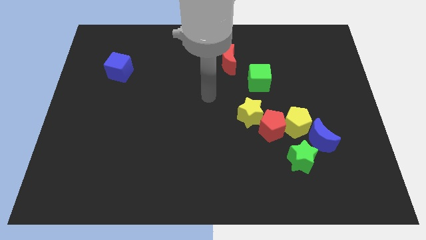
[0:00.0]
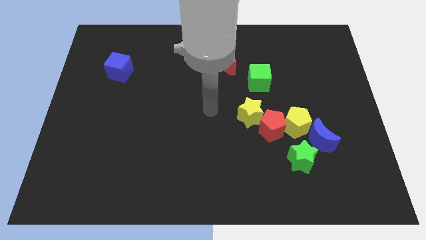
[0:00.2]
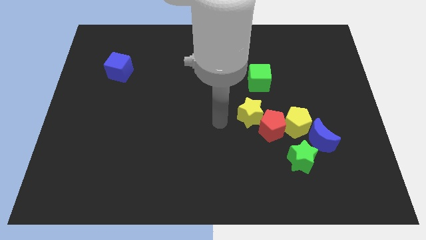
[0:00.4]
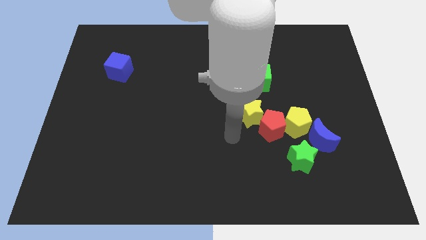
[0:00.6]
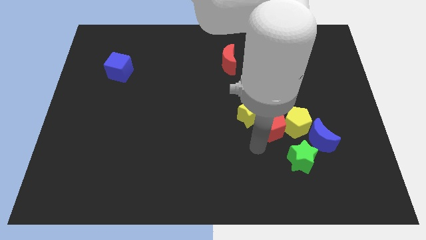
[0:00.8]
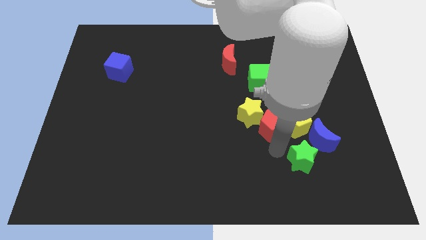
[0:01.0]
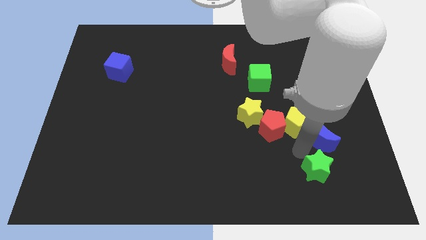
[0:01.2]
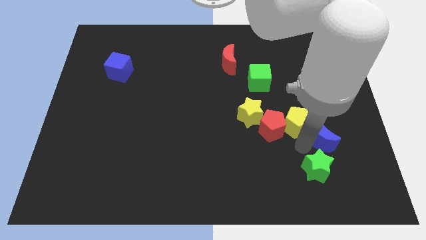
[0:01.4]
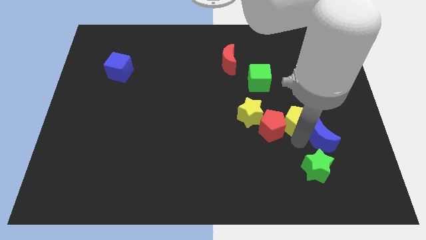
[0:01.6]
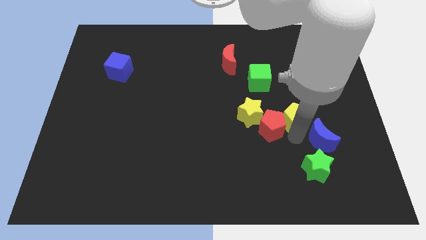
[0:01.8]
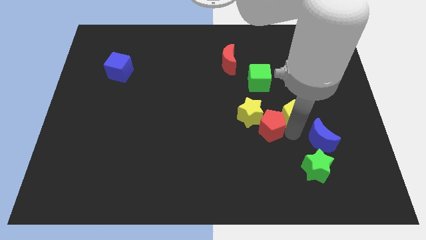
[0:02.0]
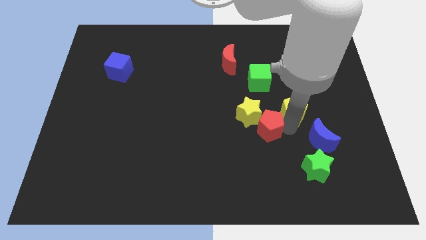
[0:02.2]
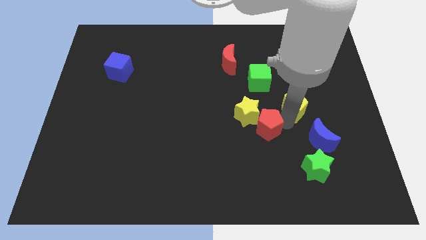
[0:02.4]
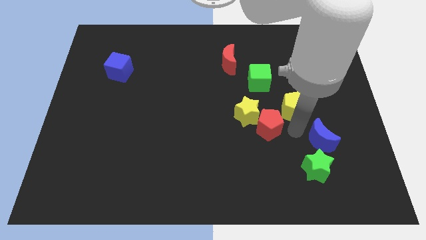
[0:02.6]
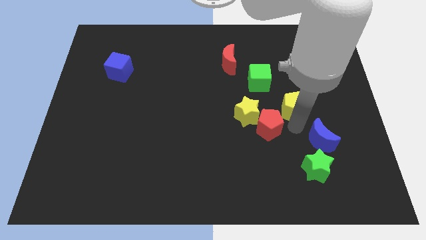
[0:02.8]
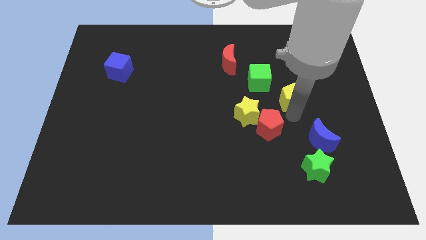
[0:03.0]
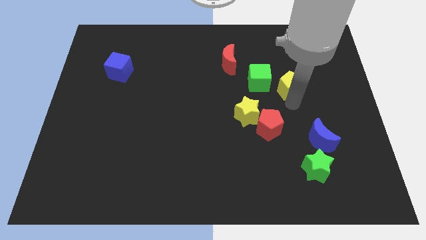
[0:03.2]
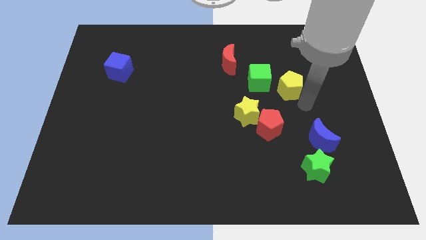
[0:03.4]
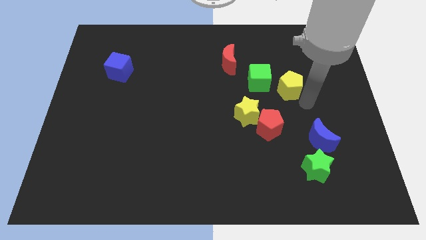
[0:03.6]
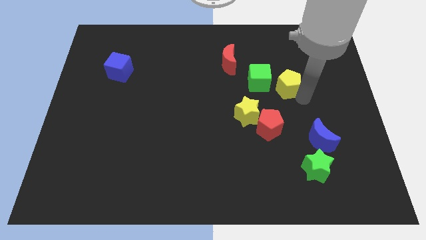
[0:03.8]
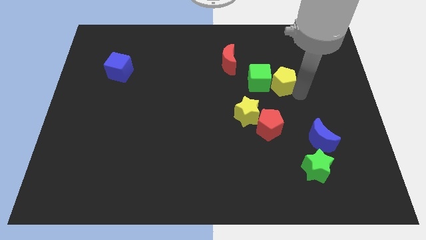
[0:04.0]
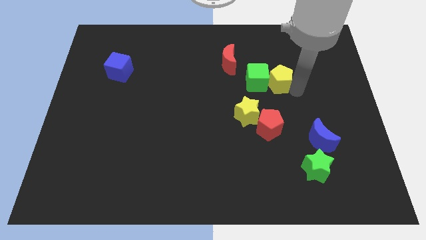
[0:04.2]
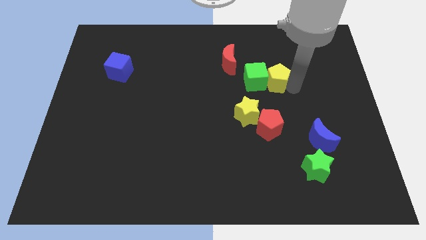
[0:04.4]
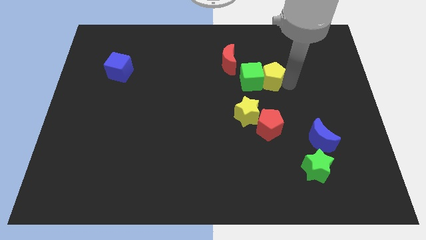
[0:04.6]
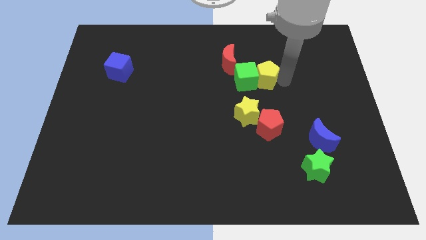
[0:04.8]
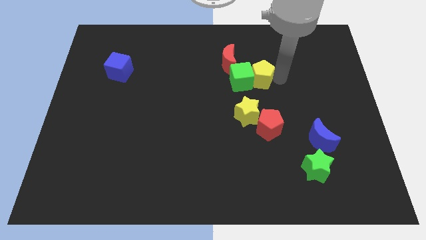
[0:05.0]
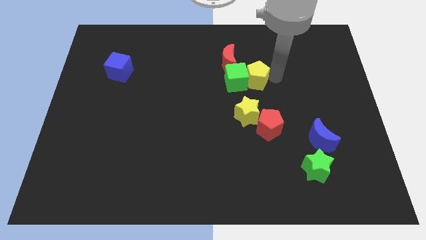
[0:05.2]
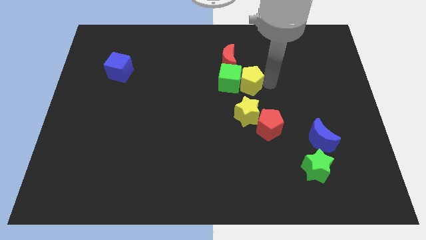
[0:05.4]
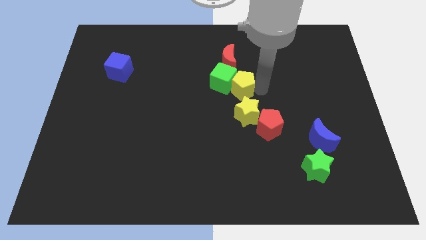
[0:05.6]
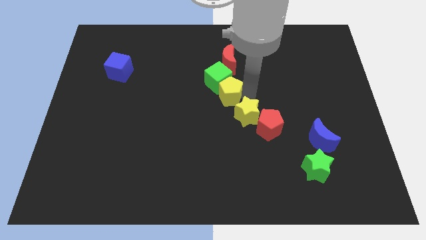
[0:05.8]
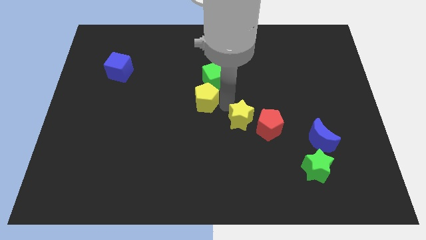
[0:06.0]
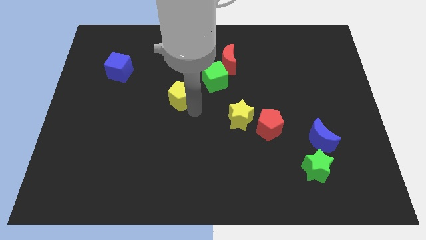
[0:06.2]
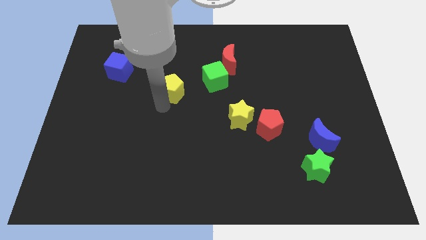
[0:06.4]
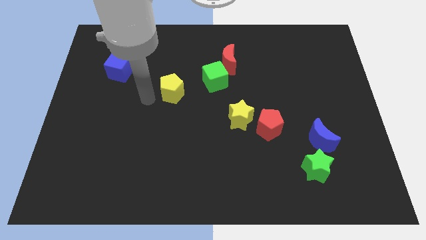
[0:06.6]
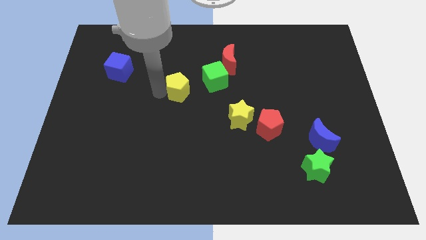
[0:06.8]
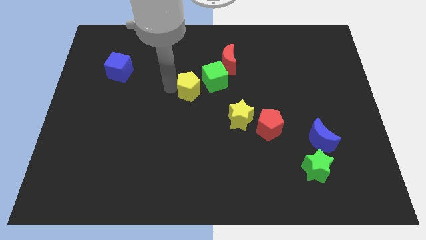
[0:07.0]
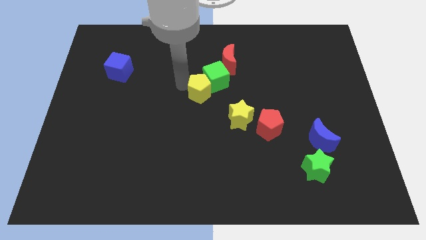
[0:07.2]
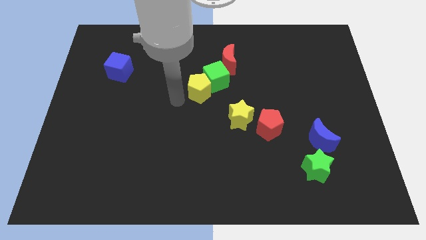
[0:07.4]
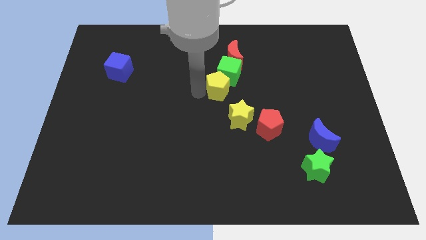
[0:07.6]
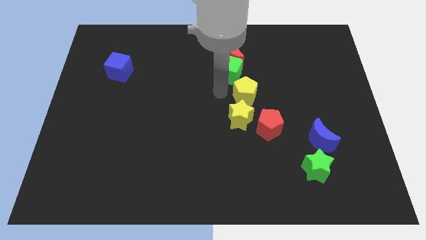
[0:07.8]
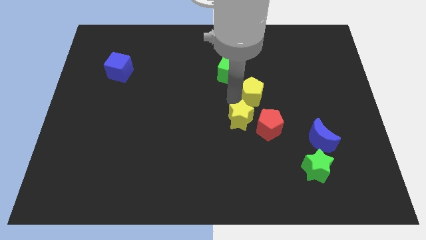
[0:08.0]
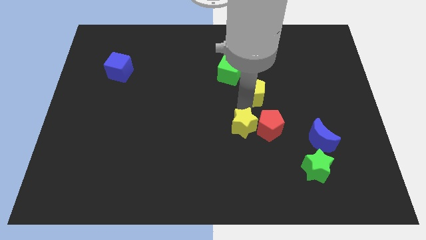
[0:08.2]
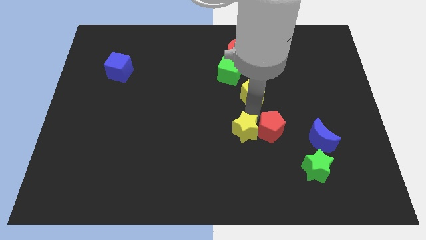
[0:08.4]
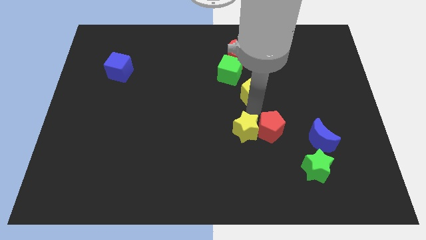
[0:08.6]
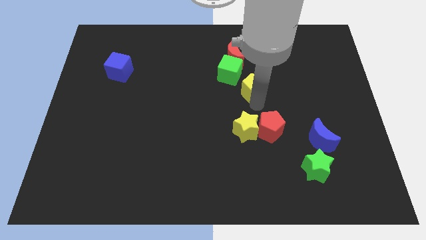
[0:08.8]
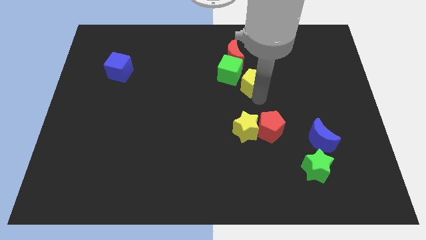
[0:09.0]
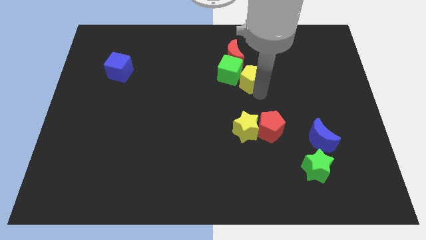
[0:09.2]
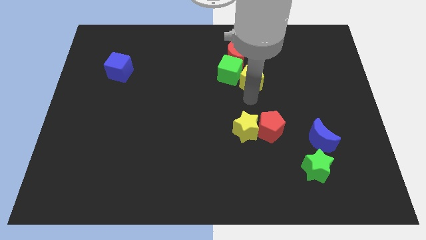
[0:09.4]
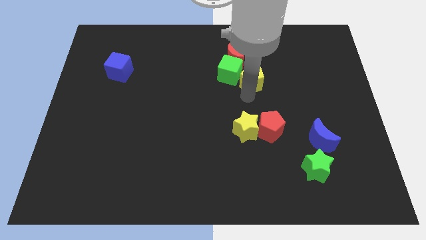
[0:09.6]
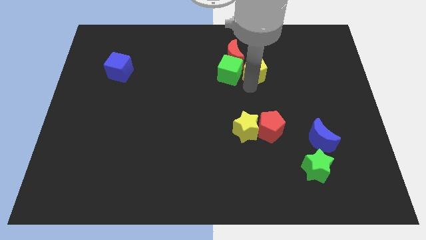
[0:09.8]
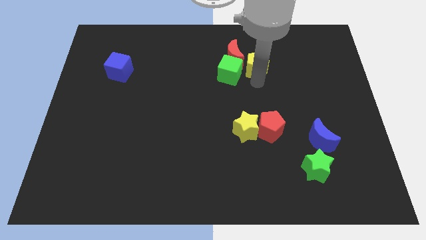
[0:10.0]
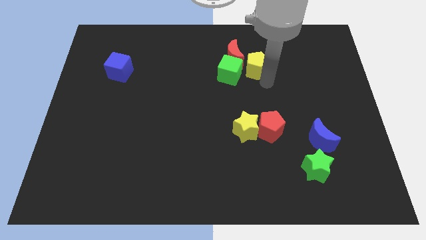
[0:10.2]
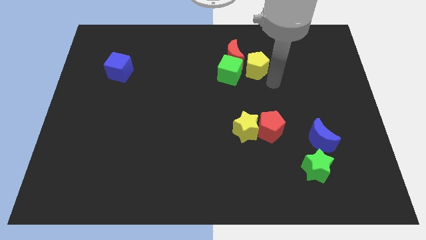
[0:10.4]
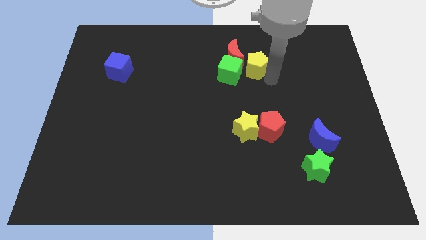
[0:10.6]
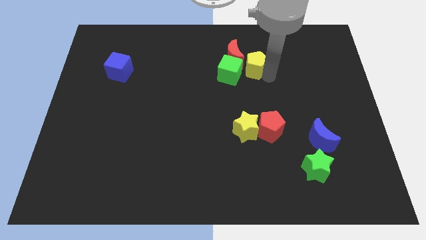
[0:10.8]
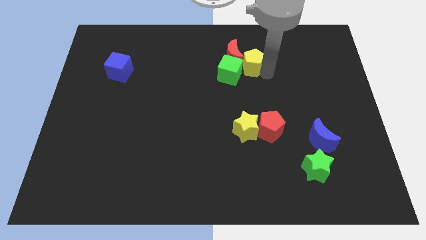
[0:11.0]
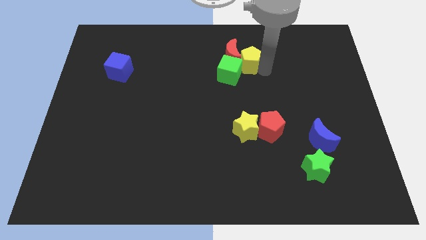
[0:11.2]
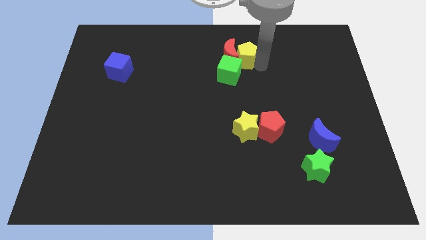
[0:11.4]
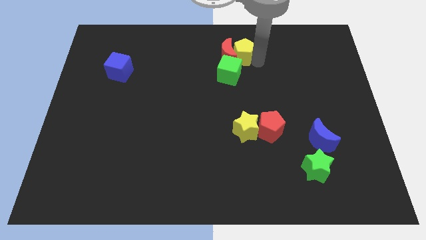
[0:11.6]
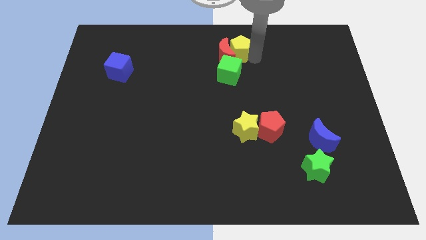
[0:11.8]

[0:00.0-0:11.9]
put the yellow pentagon to the towards your base
